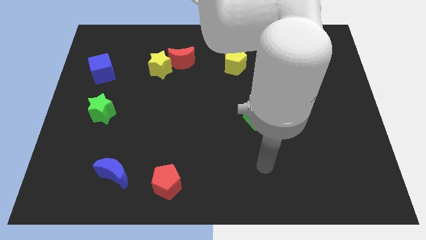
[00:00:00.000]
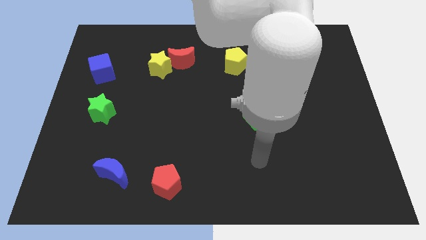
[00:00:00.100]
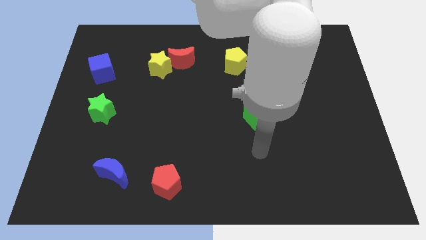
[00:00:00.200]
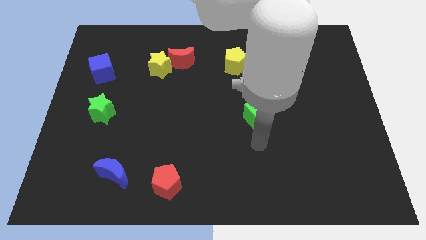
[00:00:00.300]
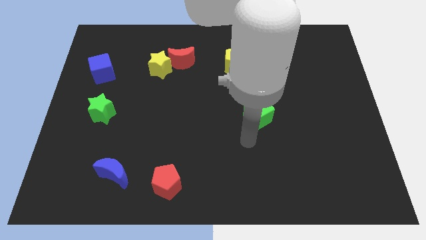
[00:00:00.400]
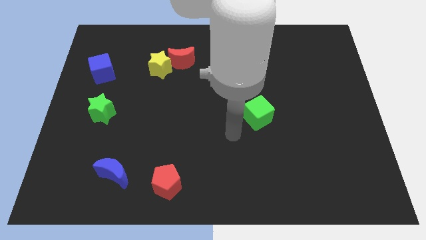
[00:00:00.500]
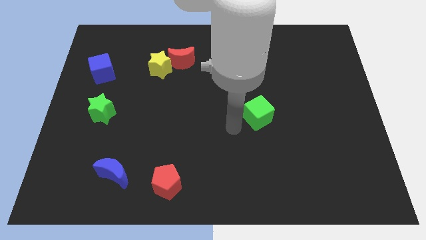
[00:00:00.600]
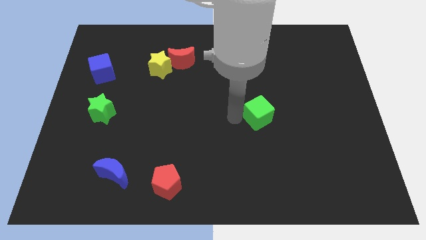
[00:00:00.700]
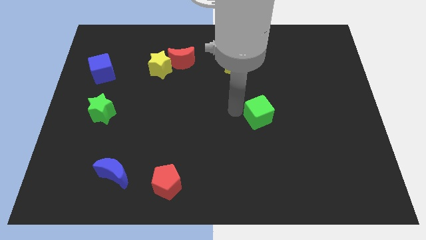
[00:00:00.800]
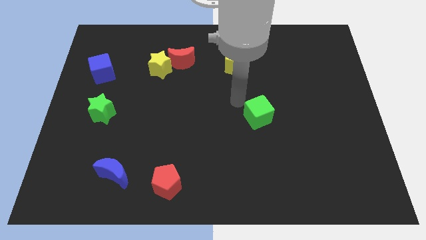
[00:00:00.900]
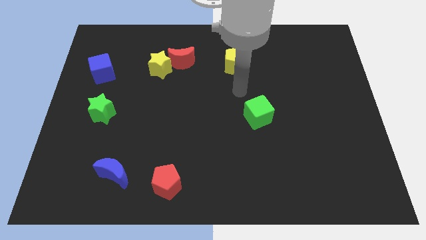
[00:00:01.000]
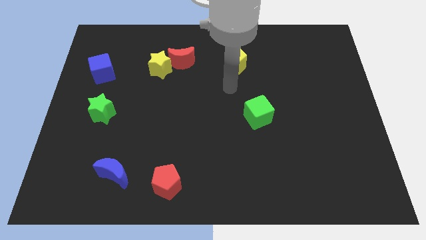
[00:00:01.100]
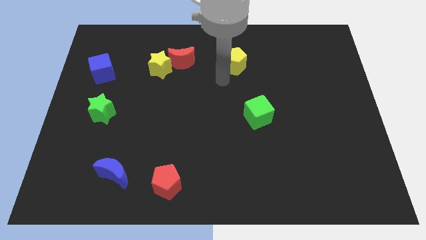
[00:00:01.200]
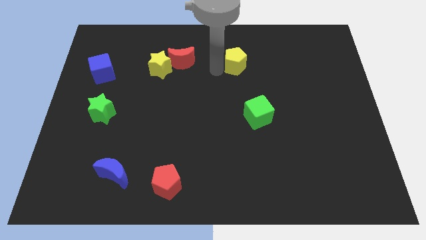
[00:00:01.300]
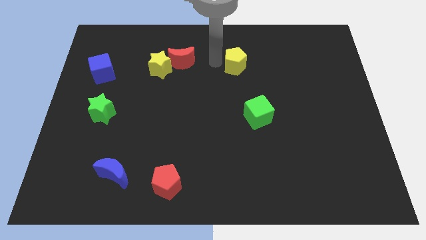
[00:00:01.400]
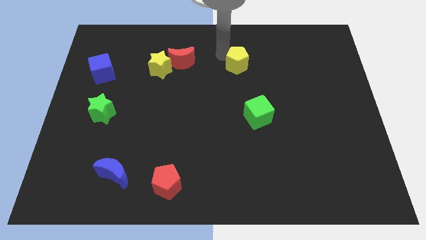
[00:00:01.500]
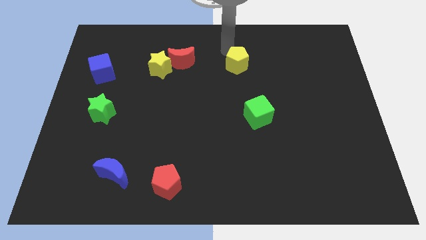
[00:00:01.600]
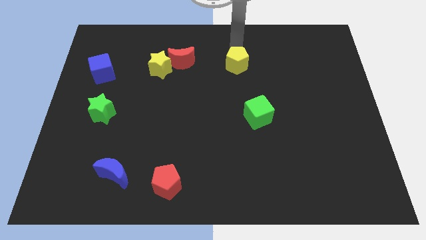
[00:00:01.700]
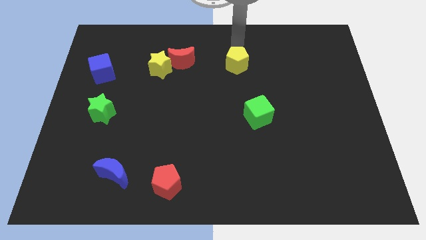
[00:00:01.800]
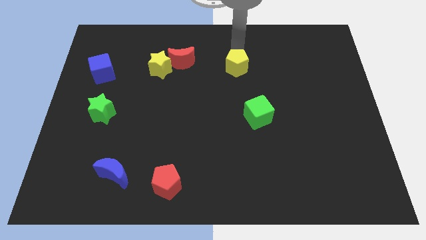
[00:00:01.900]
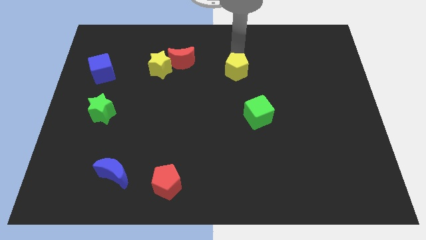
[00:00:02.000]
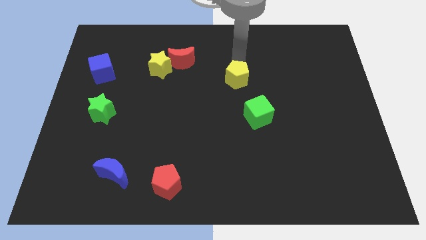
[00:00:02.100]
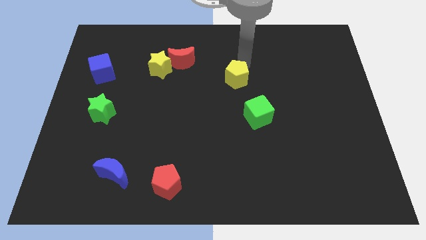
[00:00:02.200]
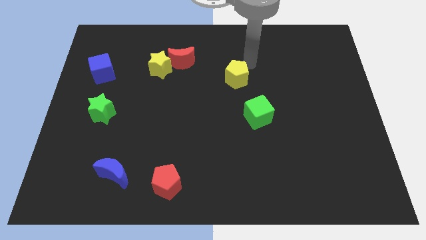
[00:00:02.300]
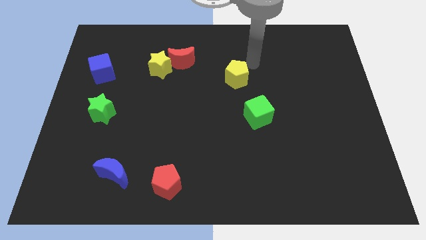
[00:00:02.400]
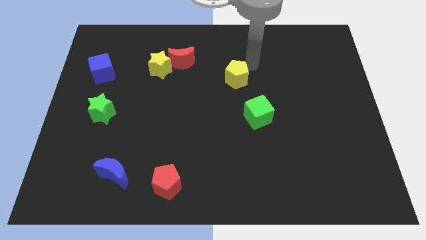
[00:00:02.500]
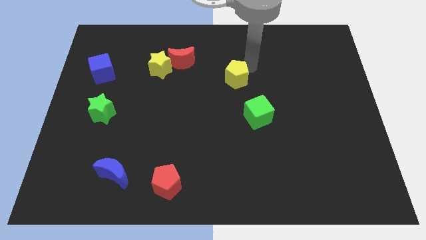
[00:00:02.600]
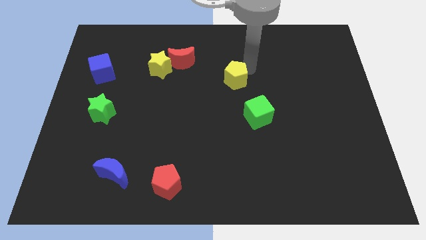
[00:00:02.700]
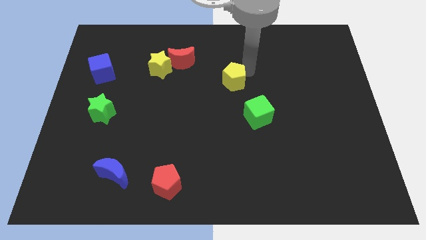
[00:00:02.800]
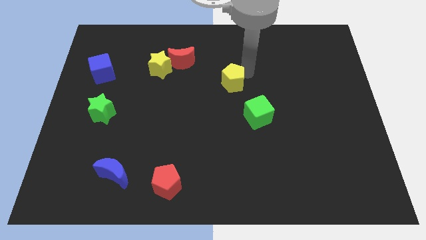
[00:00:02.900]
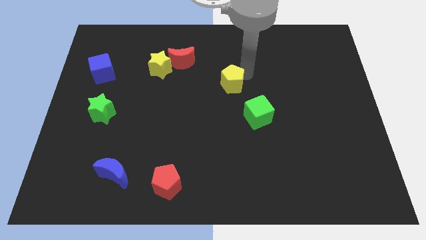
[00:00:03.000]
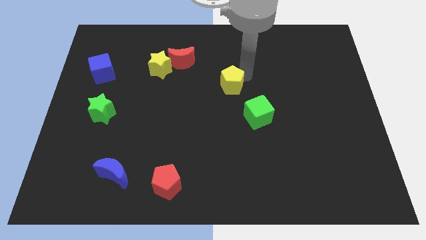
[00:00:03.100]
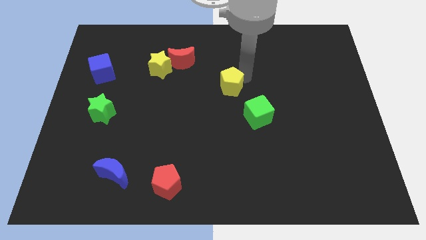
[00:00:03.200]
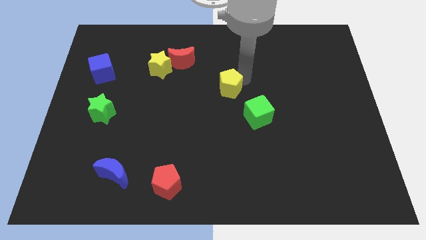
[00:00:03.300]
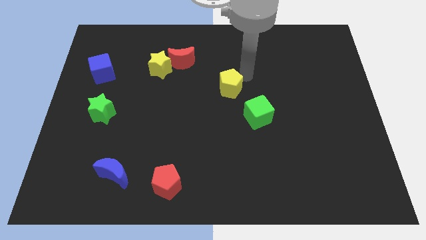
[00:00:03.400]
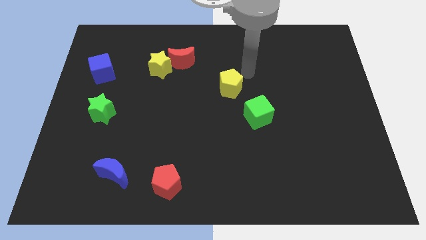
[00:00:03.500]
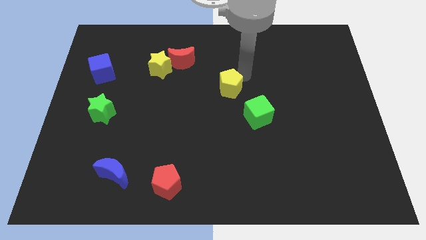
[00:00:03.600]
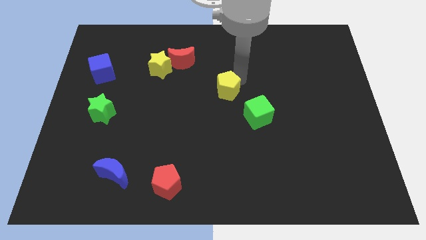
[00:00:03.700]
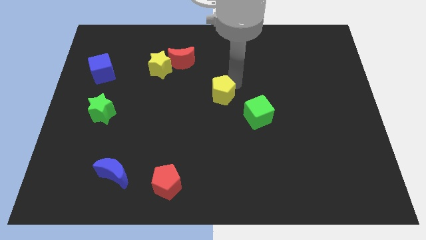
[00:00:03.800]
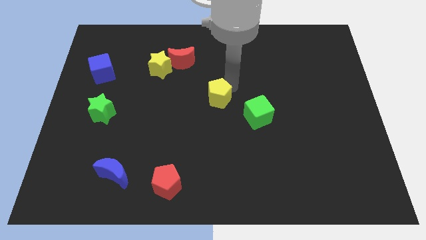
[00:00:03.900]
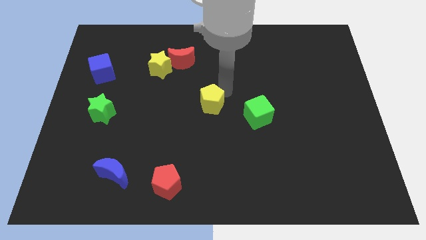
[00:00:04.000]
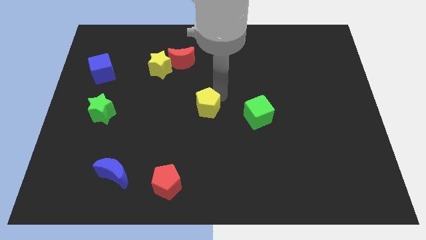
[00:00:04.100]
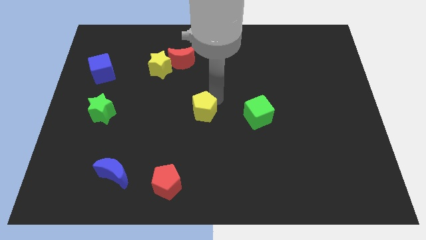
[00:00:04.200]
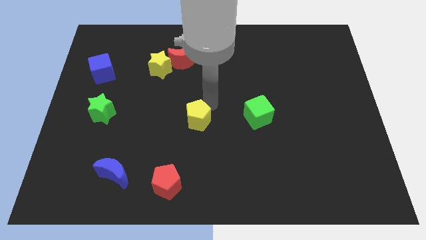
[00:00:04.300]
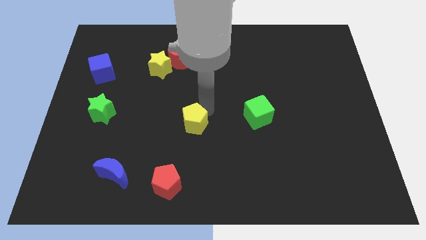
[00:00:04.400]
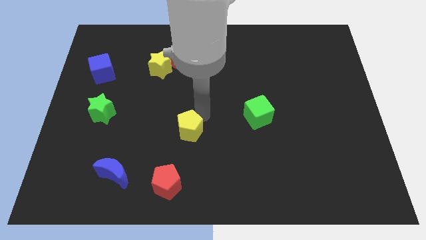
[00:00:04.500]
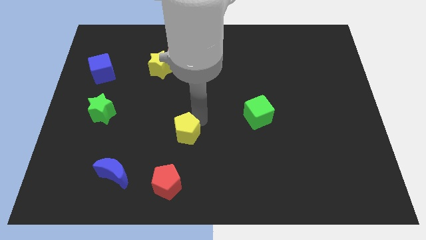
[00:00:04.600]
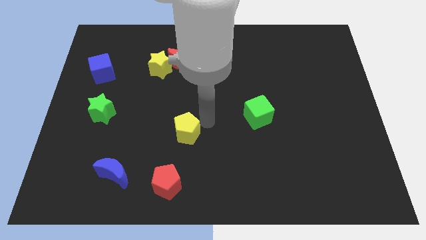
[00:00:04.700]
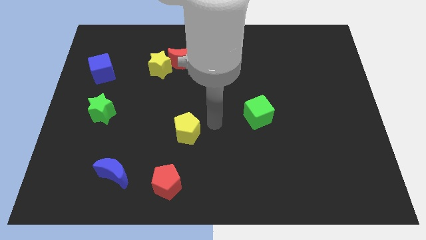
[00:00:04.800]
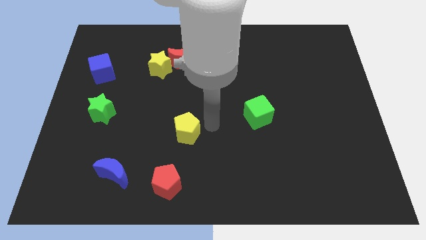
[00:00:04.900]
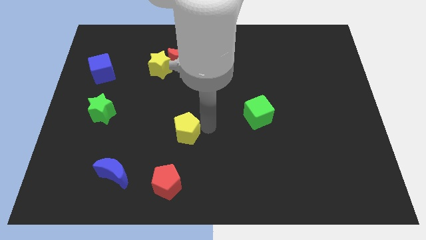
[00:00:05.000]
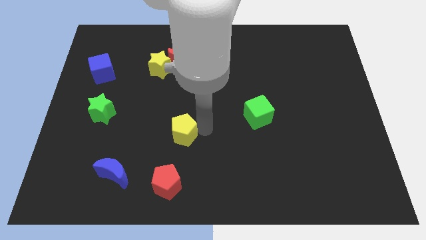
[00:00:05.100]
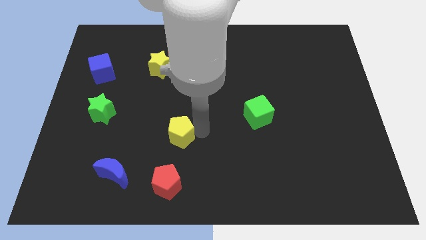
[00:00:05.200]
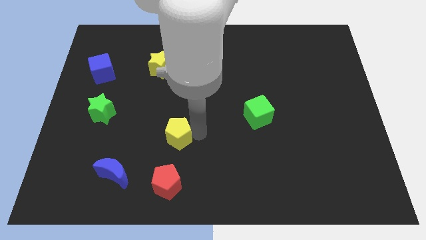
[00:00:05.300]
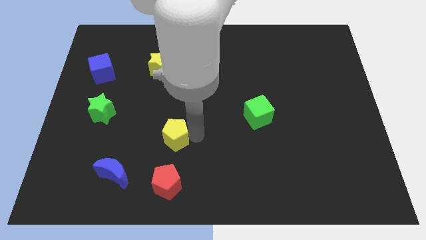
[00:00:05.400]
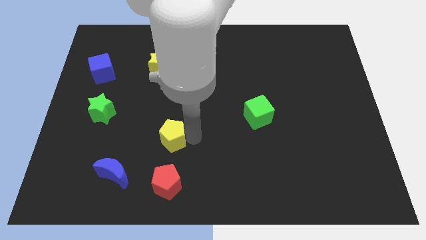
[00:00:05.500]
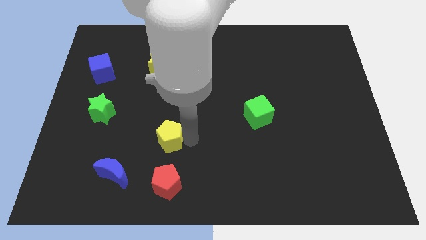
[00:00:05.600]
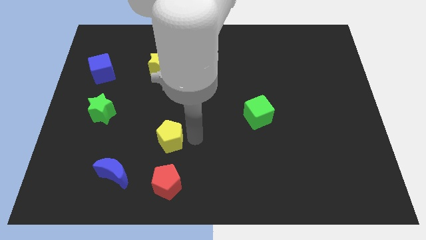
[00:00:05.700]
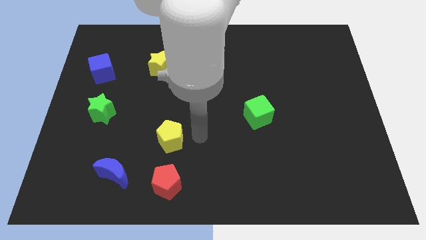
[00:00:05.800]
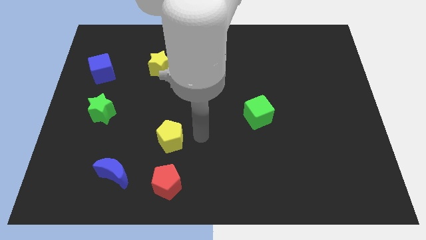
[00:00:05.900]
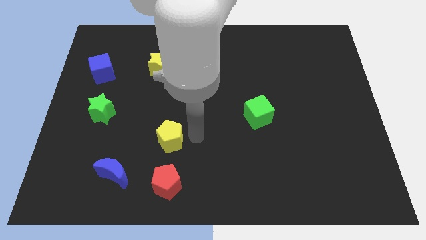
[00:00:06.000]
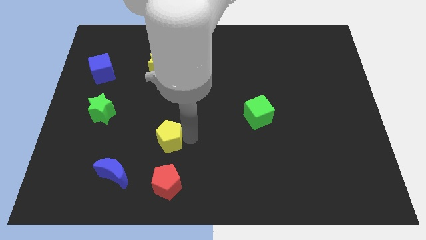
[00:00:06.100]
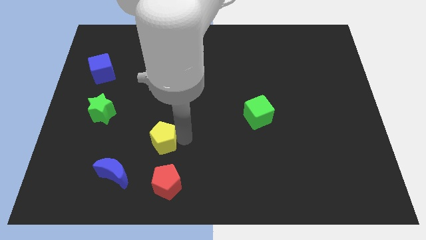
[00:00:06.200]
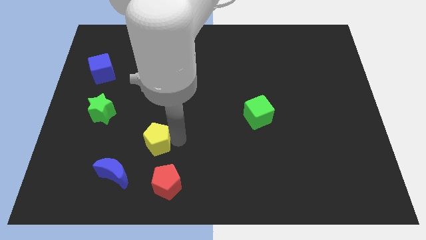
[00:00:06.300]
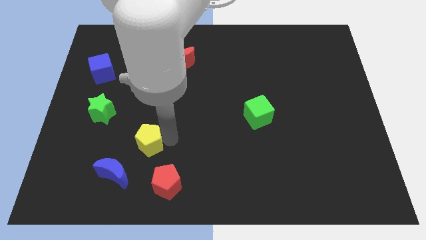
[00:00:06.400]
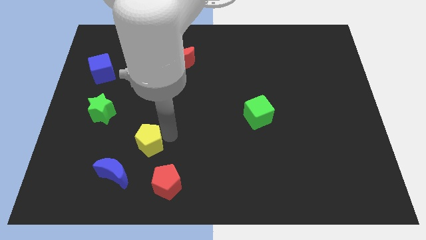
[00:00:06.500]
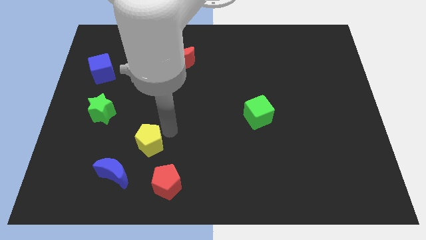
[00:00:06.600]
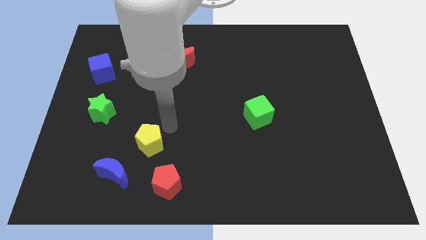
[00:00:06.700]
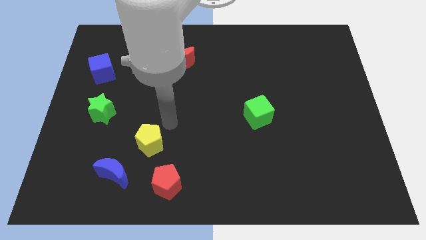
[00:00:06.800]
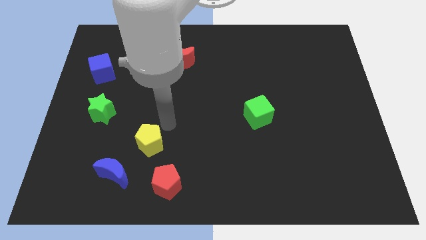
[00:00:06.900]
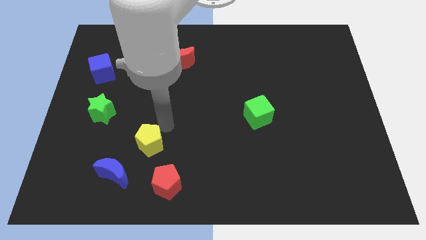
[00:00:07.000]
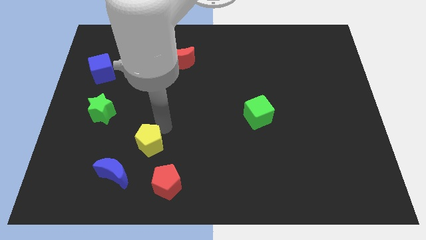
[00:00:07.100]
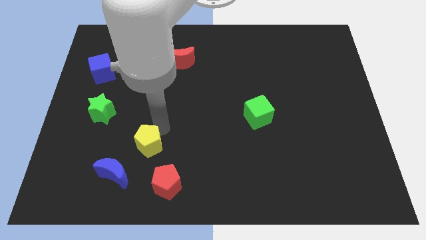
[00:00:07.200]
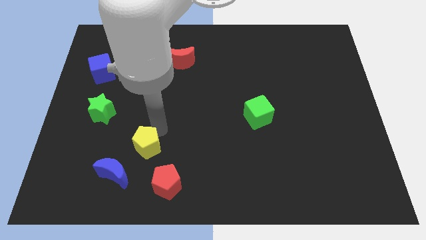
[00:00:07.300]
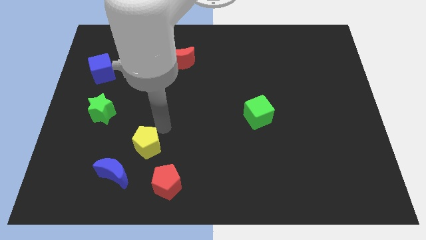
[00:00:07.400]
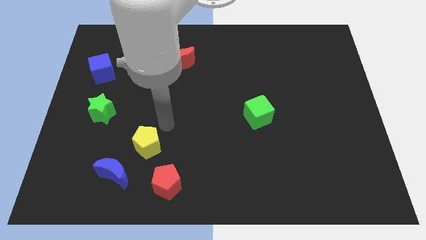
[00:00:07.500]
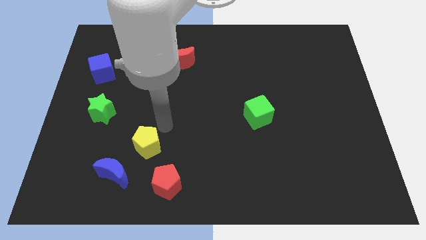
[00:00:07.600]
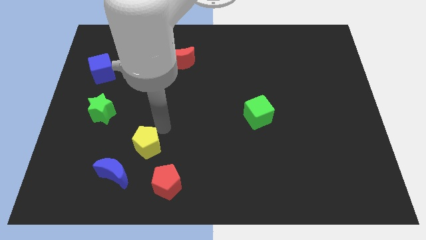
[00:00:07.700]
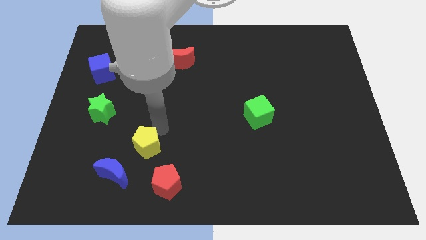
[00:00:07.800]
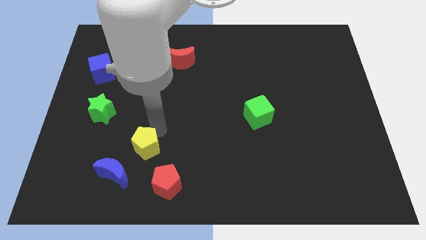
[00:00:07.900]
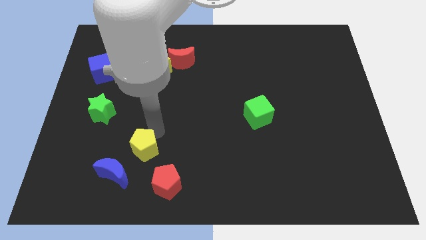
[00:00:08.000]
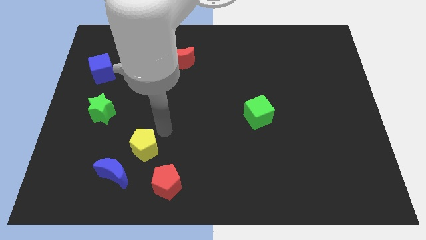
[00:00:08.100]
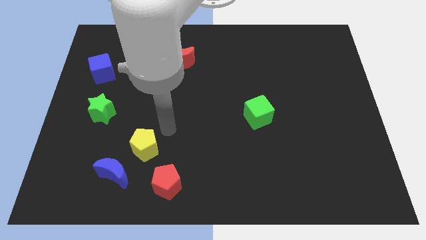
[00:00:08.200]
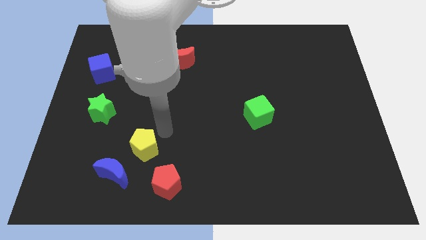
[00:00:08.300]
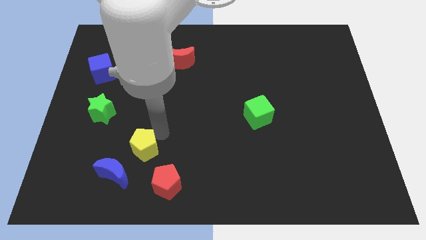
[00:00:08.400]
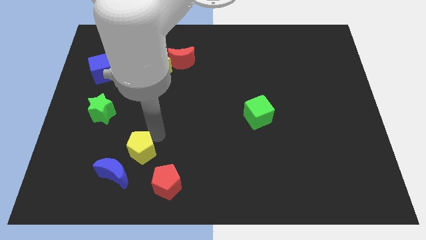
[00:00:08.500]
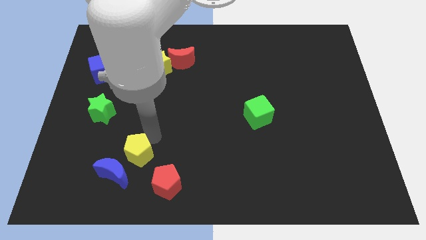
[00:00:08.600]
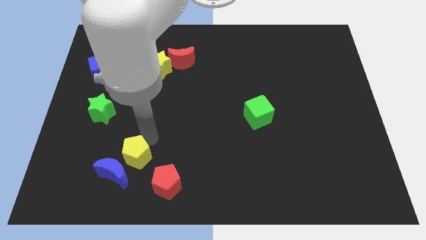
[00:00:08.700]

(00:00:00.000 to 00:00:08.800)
move the yellow pentagon close to the blue moon
